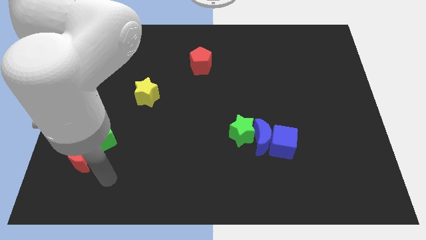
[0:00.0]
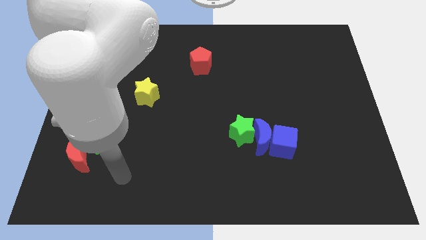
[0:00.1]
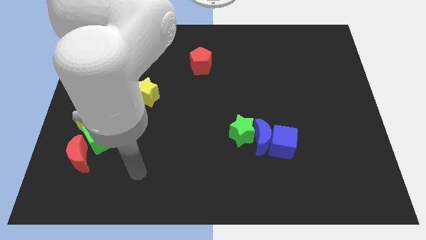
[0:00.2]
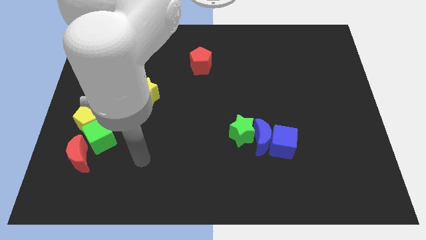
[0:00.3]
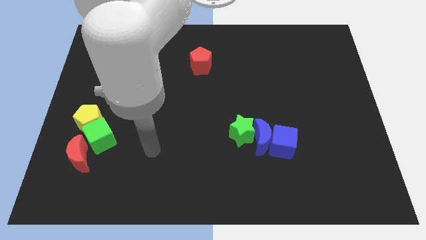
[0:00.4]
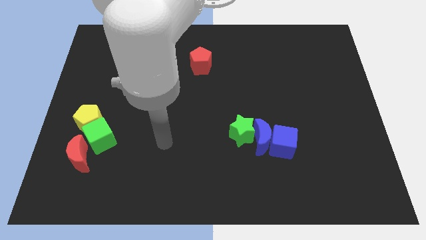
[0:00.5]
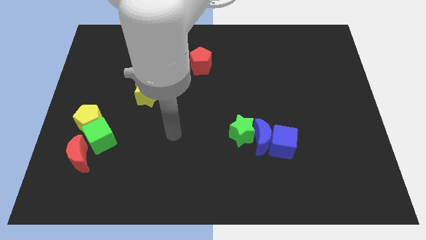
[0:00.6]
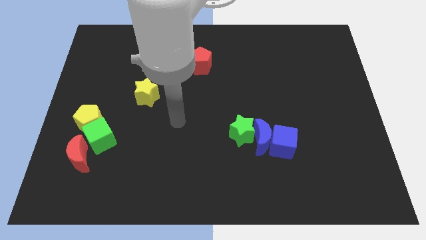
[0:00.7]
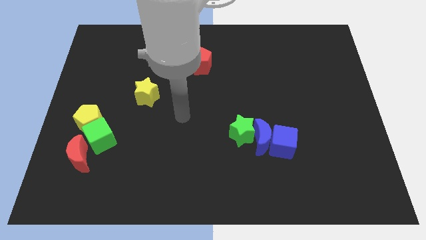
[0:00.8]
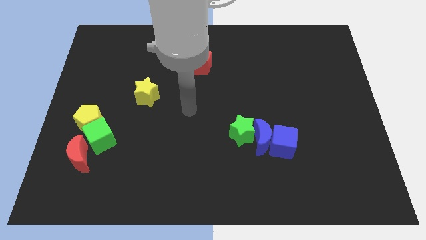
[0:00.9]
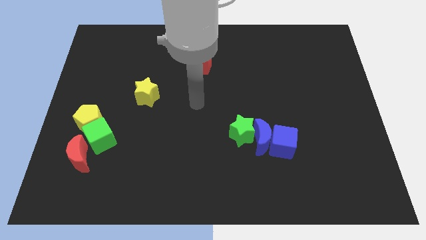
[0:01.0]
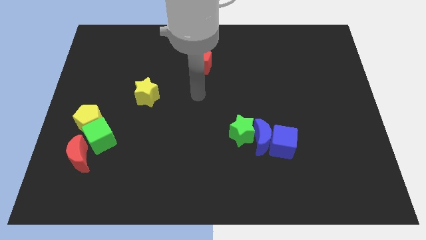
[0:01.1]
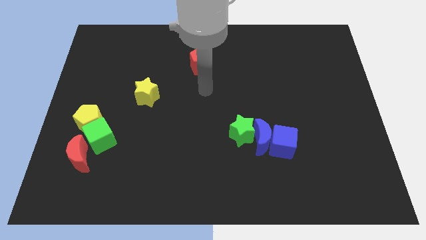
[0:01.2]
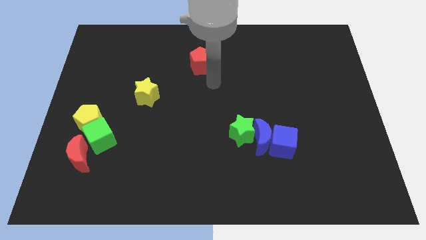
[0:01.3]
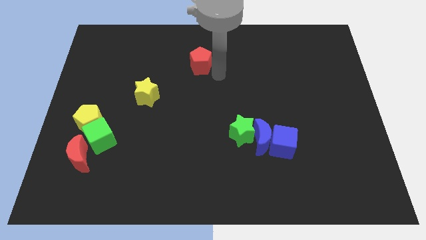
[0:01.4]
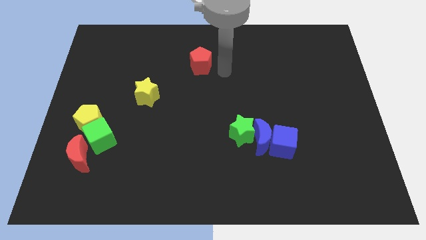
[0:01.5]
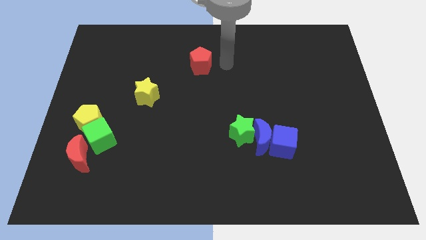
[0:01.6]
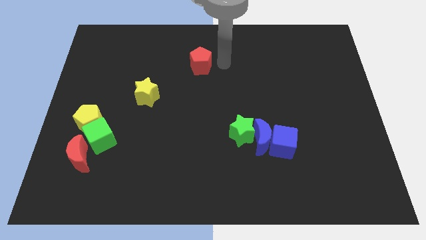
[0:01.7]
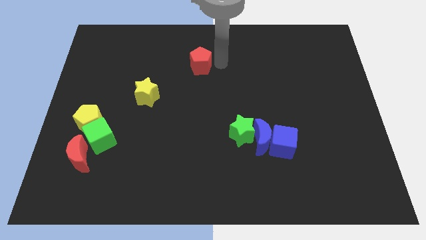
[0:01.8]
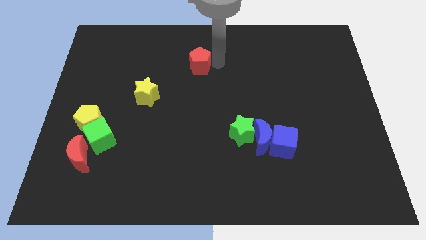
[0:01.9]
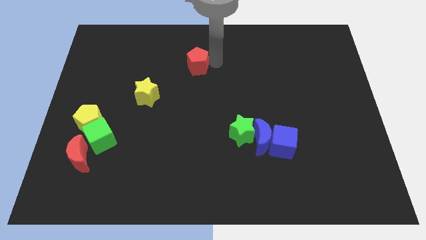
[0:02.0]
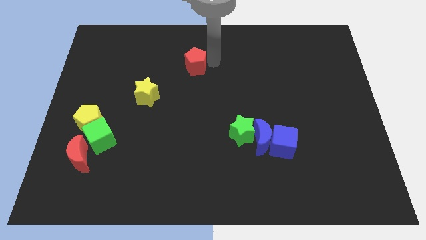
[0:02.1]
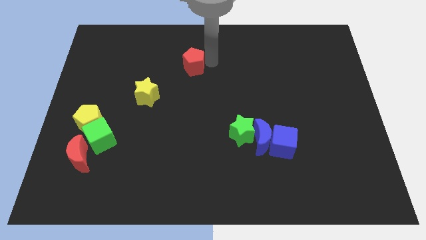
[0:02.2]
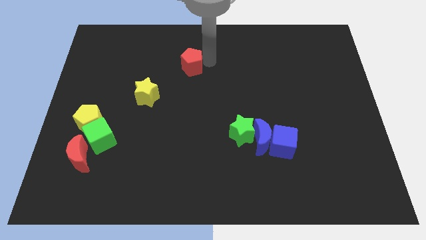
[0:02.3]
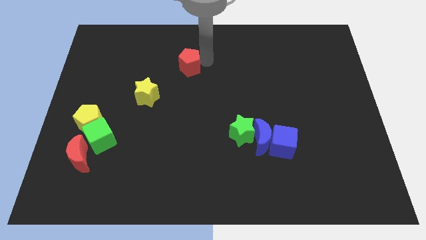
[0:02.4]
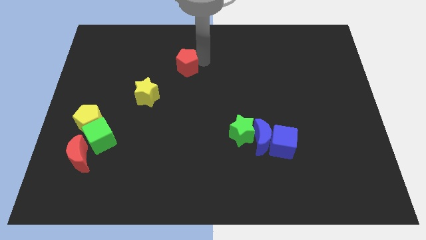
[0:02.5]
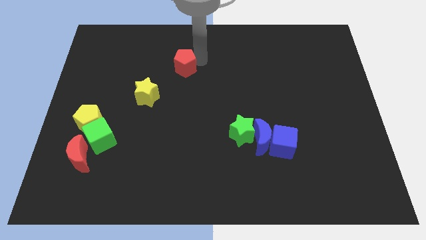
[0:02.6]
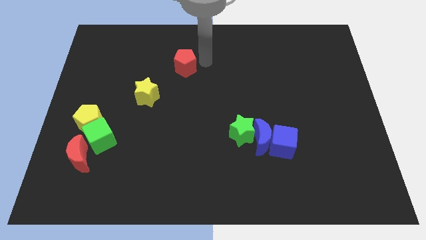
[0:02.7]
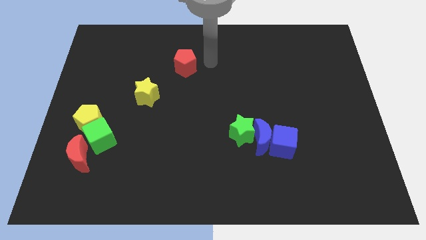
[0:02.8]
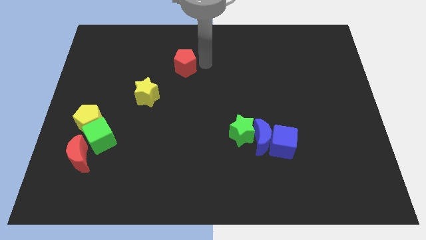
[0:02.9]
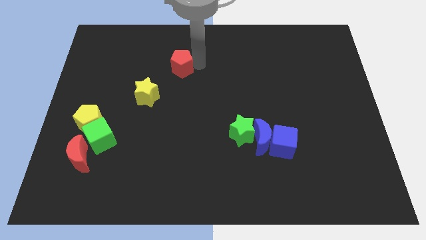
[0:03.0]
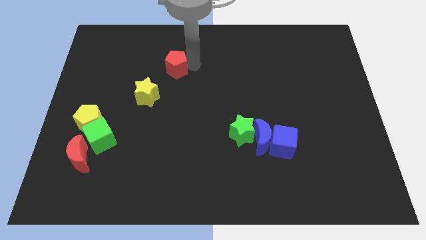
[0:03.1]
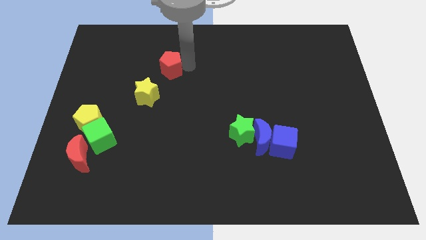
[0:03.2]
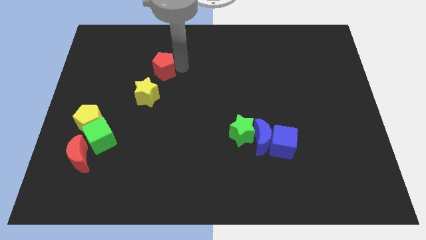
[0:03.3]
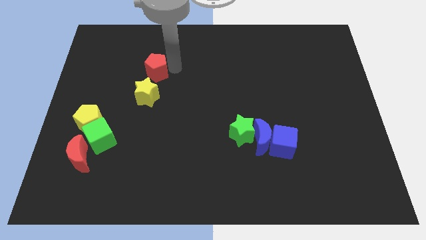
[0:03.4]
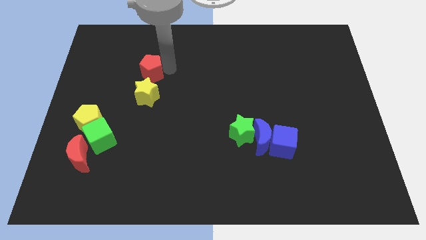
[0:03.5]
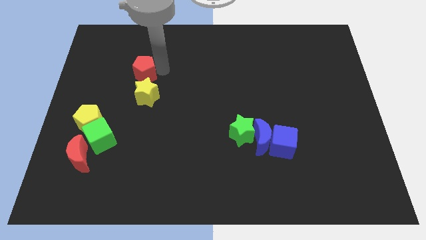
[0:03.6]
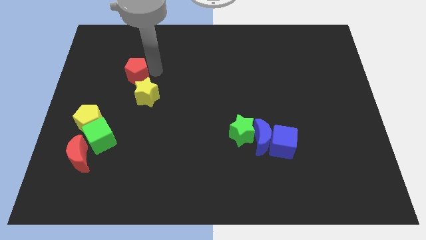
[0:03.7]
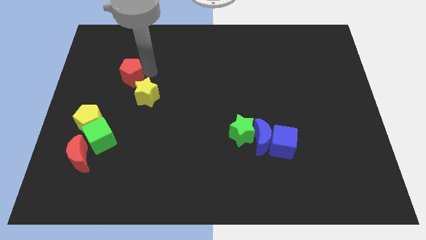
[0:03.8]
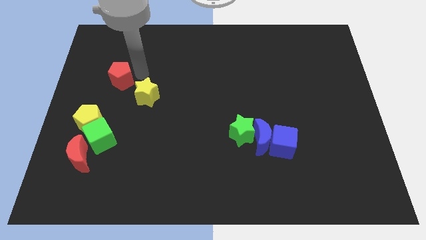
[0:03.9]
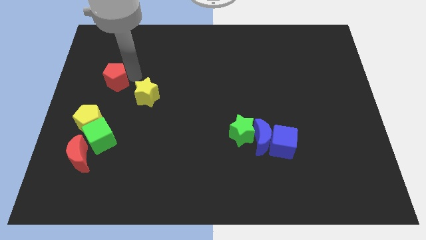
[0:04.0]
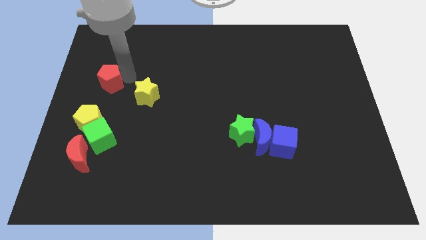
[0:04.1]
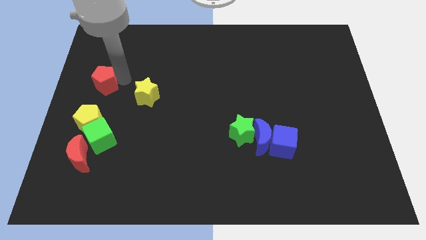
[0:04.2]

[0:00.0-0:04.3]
push the red pentagon to the left side

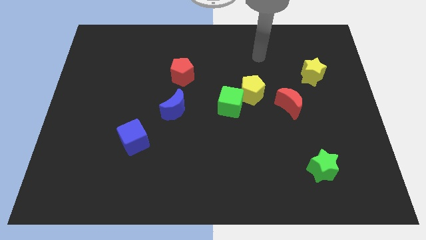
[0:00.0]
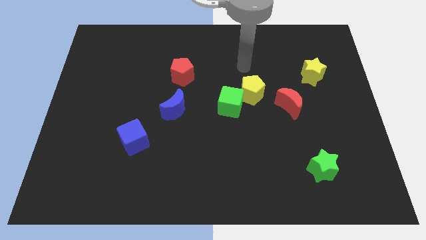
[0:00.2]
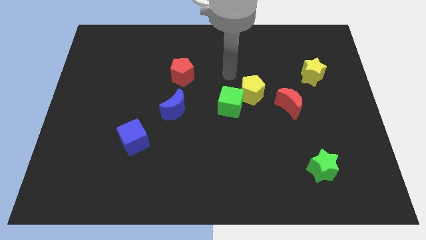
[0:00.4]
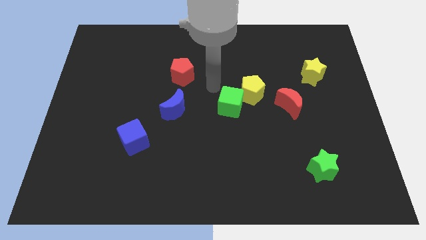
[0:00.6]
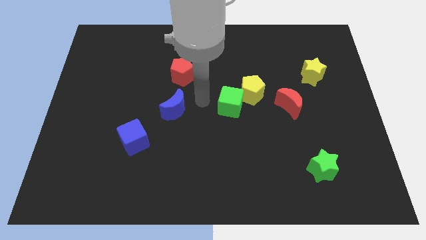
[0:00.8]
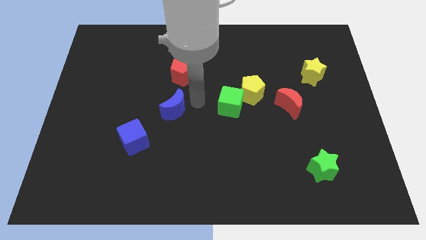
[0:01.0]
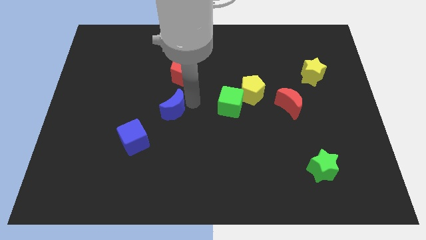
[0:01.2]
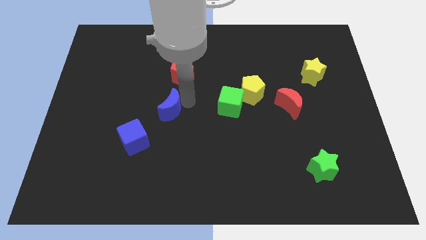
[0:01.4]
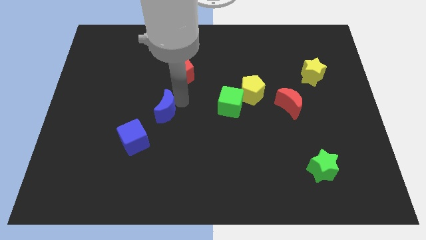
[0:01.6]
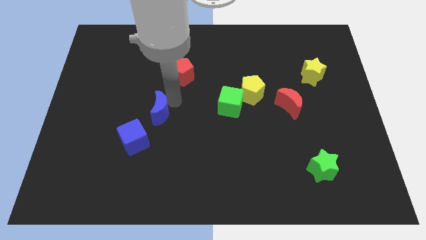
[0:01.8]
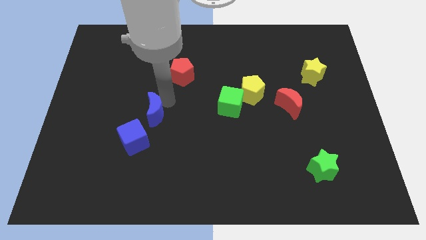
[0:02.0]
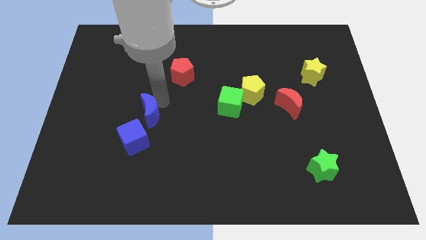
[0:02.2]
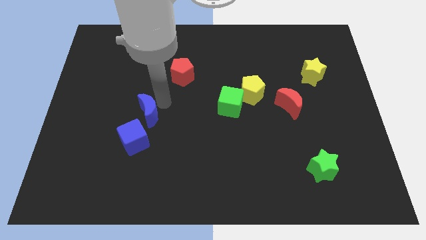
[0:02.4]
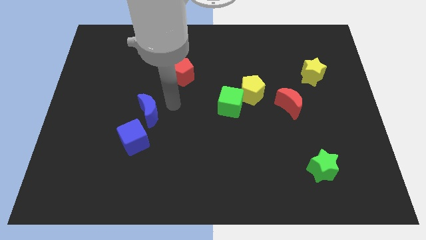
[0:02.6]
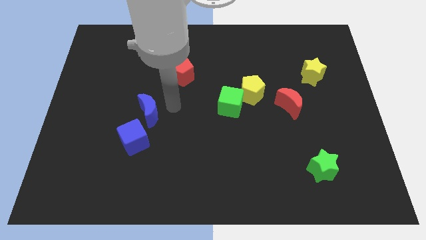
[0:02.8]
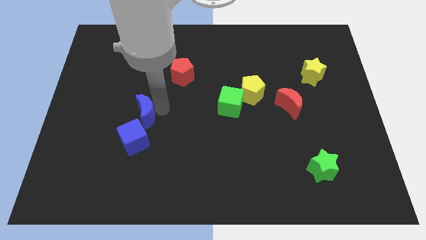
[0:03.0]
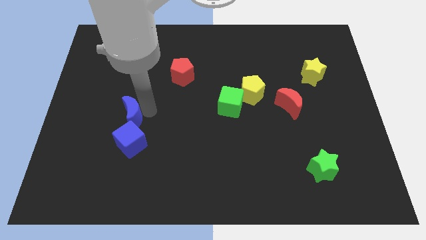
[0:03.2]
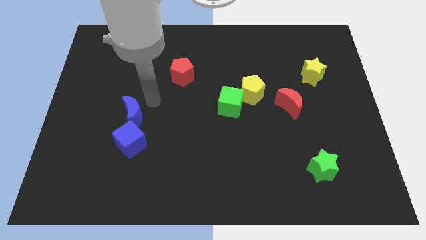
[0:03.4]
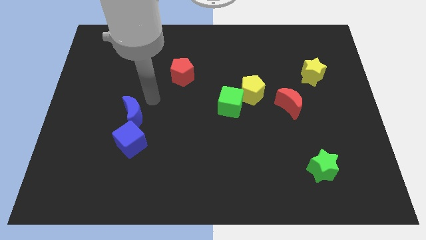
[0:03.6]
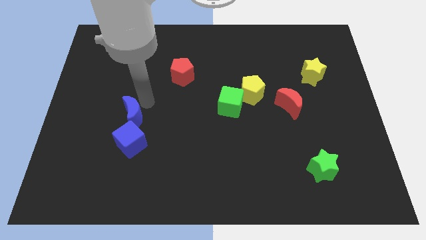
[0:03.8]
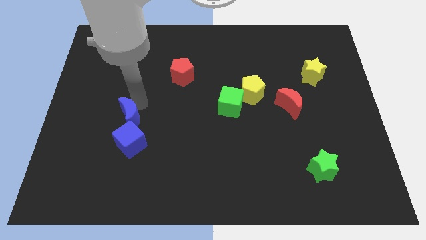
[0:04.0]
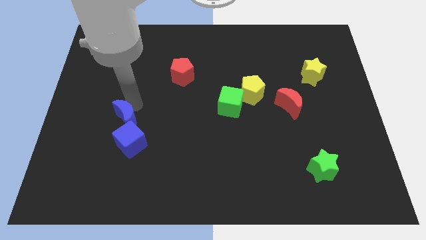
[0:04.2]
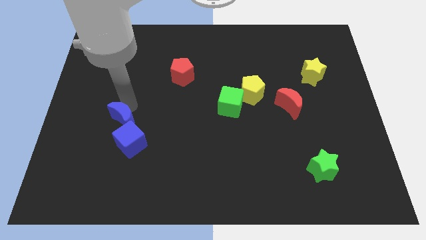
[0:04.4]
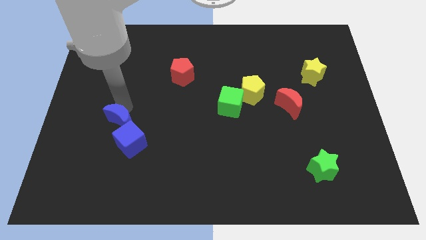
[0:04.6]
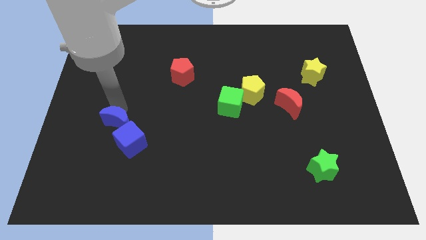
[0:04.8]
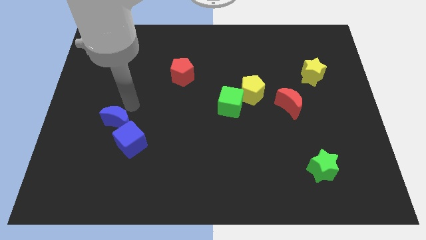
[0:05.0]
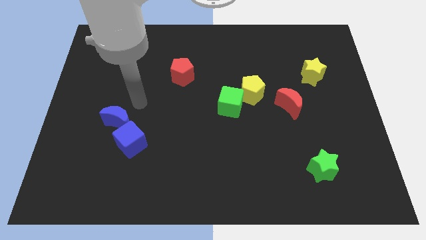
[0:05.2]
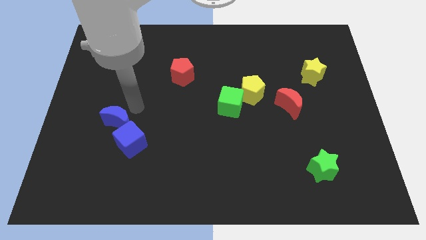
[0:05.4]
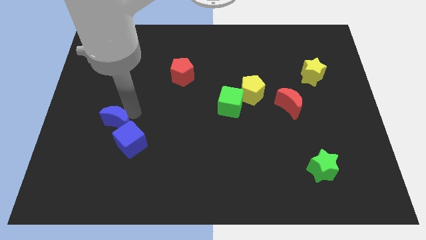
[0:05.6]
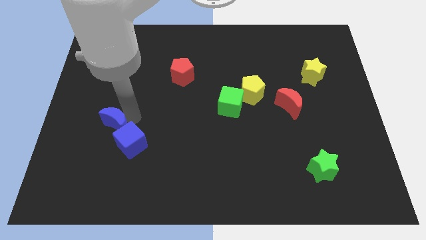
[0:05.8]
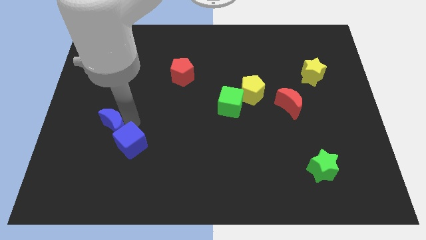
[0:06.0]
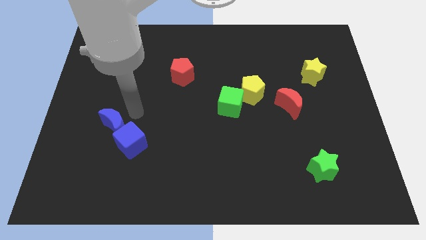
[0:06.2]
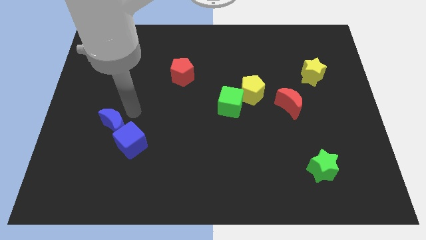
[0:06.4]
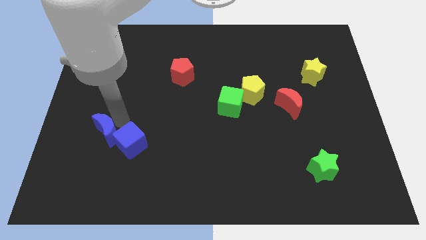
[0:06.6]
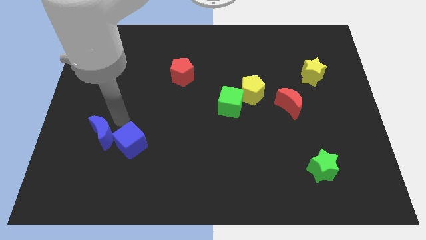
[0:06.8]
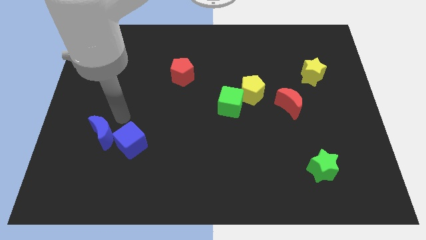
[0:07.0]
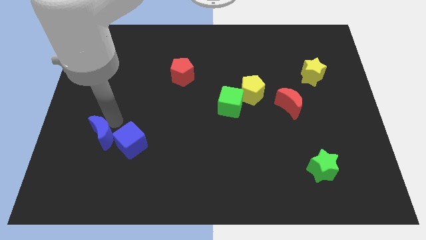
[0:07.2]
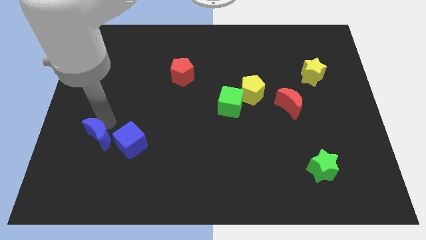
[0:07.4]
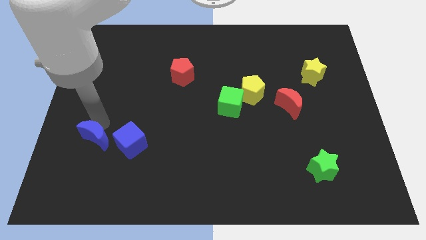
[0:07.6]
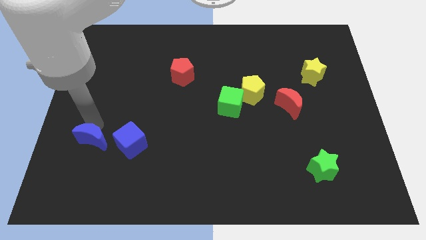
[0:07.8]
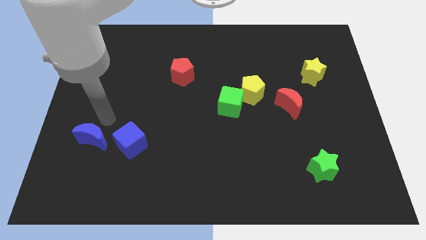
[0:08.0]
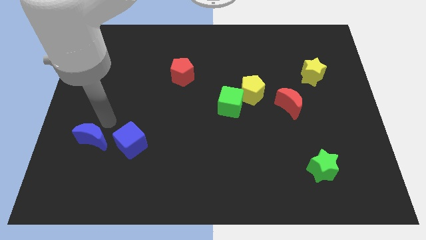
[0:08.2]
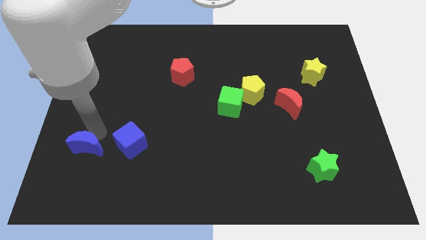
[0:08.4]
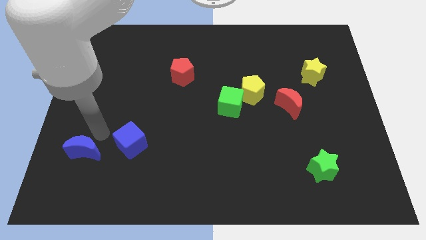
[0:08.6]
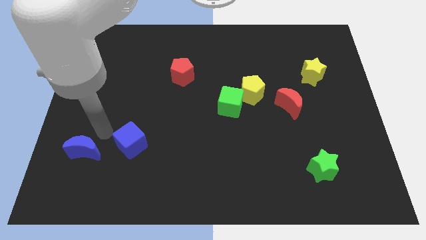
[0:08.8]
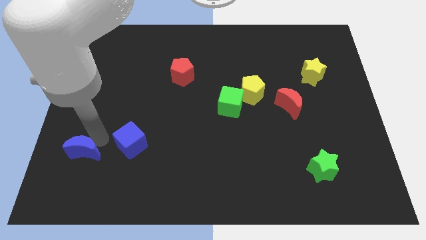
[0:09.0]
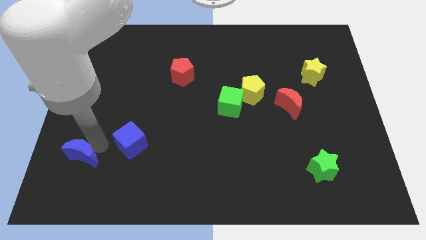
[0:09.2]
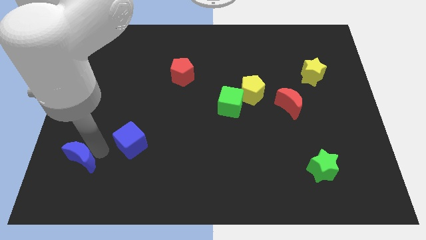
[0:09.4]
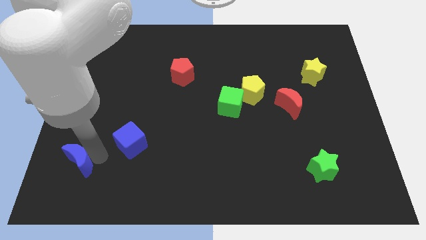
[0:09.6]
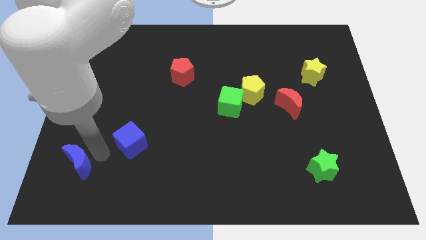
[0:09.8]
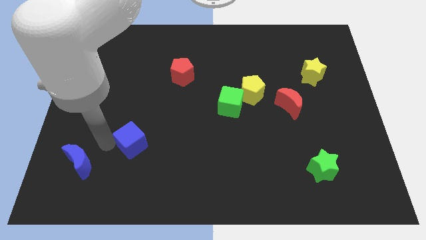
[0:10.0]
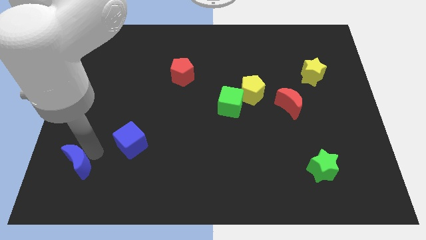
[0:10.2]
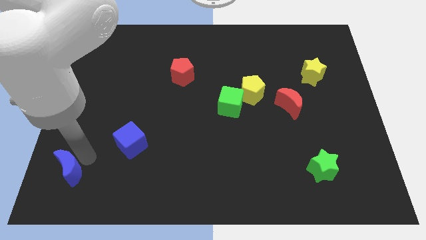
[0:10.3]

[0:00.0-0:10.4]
push the blue moon to the lower left corner
